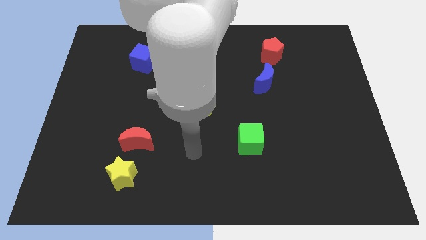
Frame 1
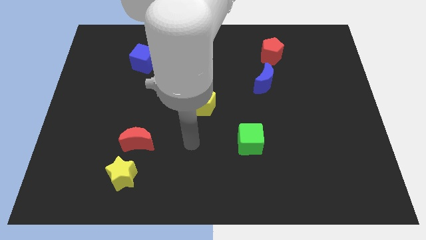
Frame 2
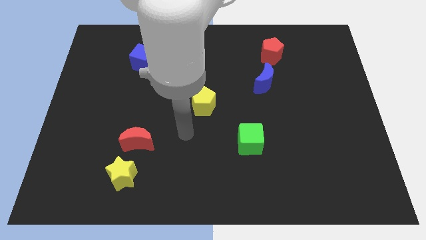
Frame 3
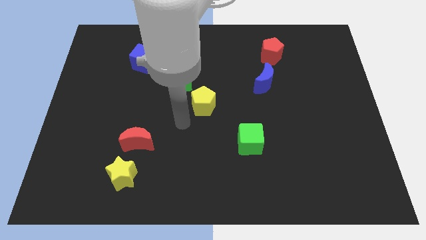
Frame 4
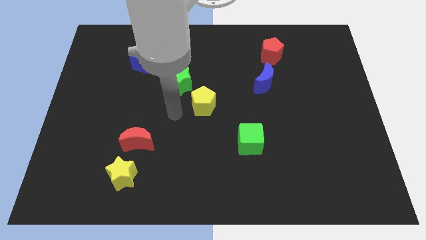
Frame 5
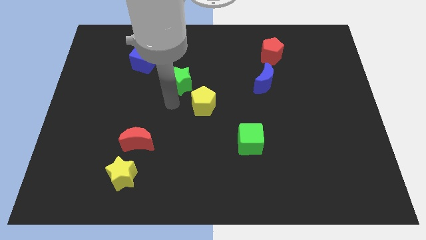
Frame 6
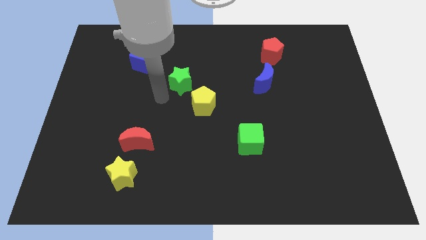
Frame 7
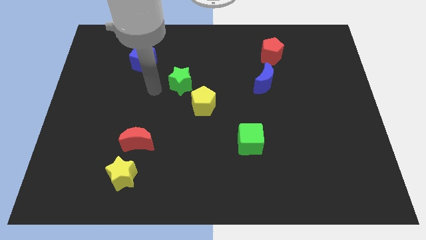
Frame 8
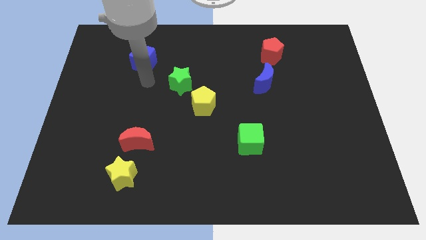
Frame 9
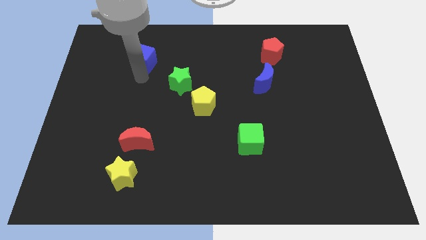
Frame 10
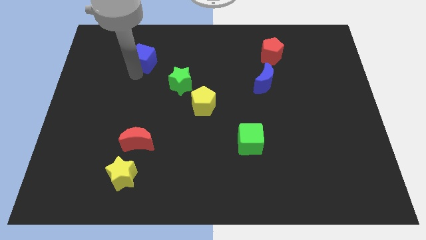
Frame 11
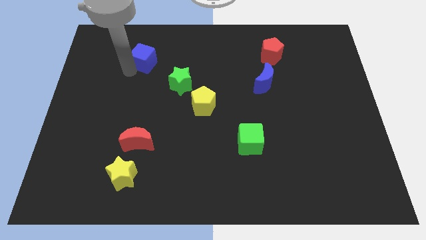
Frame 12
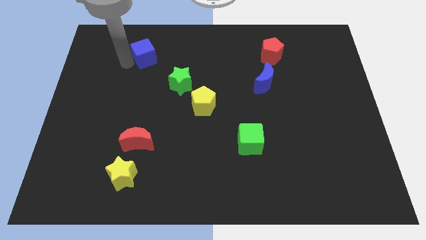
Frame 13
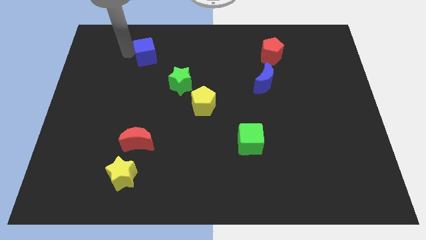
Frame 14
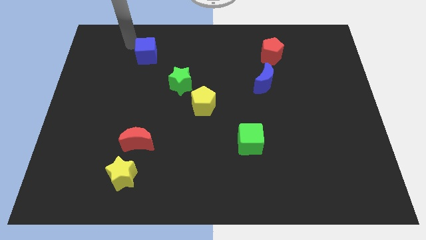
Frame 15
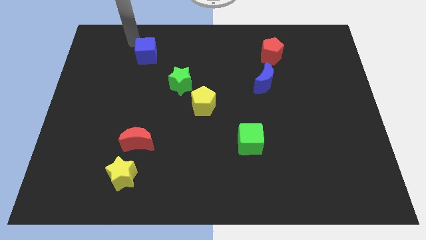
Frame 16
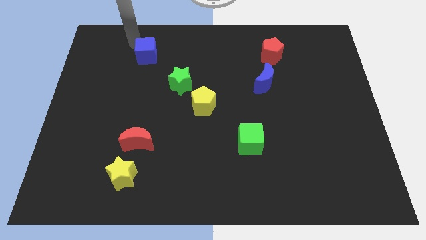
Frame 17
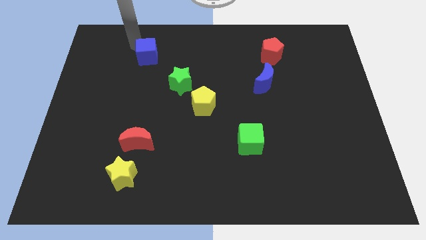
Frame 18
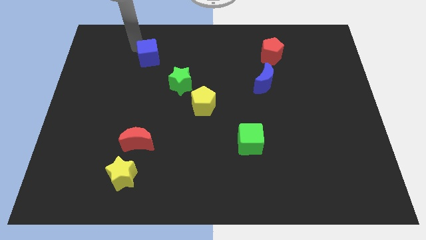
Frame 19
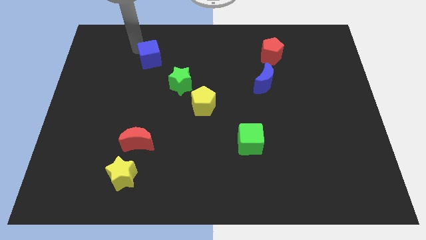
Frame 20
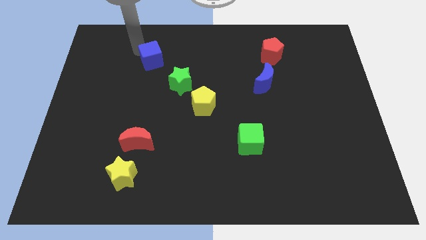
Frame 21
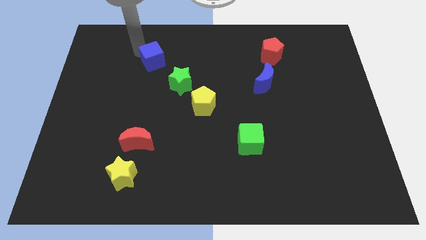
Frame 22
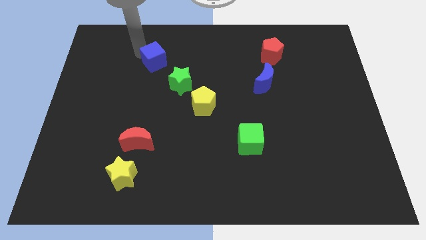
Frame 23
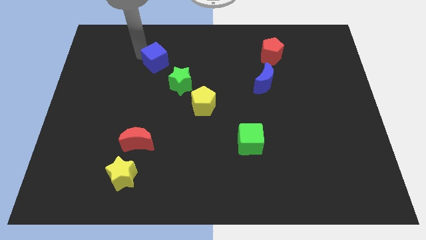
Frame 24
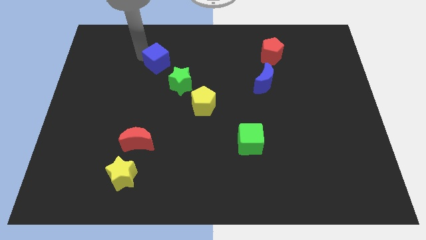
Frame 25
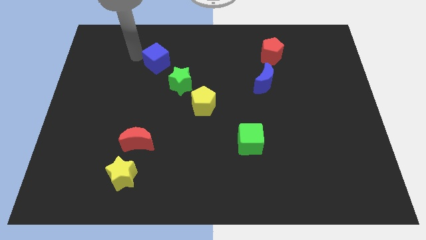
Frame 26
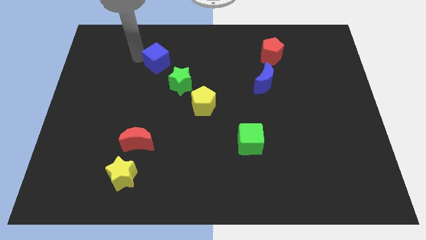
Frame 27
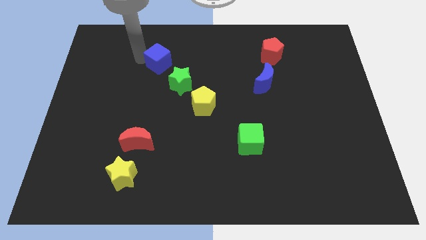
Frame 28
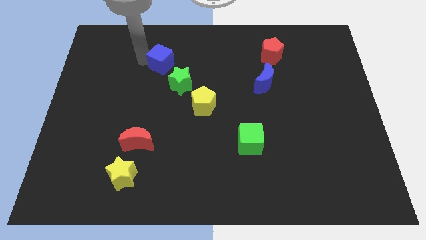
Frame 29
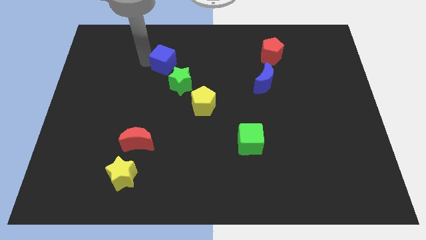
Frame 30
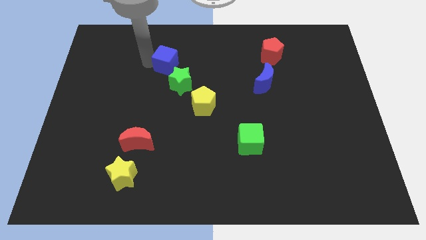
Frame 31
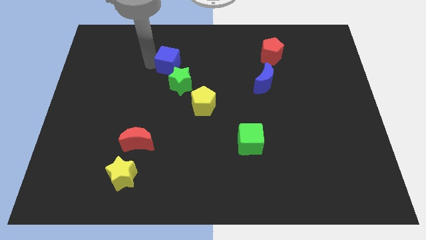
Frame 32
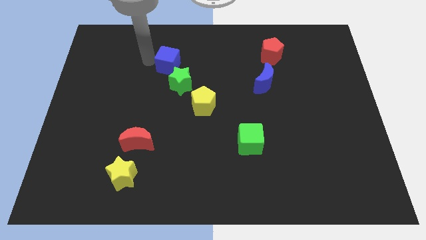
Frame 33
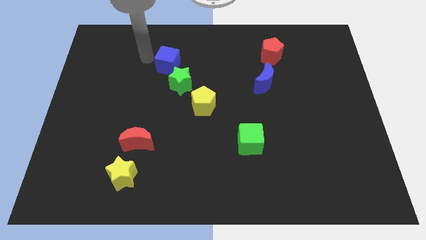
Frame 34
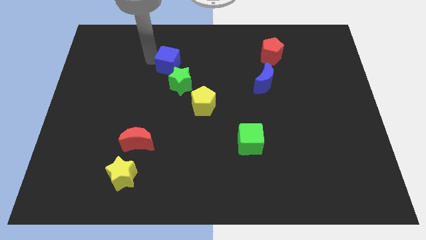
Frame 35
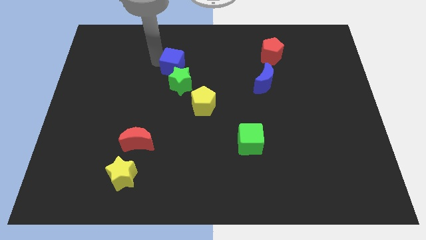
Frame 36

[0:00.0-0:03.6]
slightly move the blue cube right

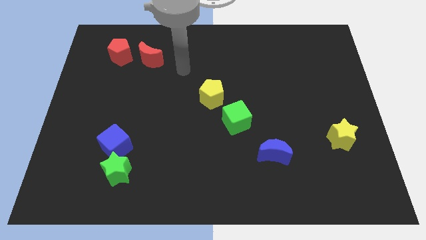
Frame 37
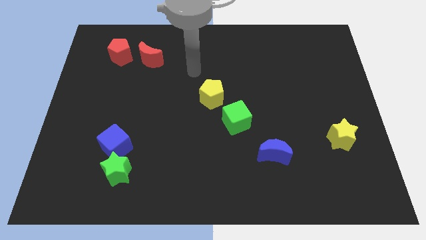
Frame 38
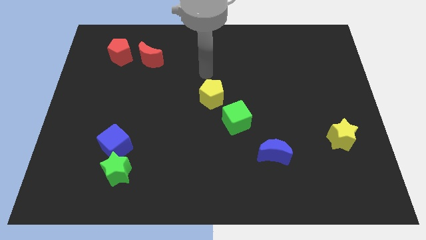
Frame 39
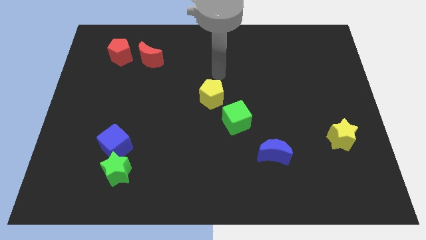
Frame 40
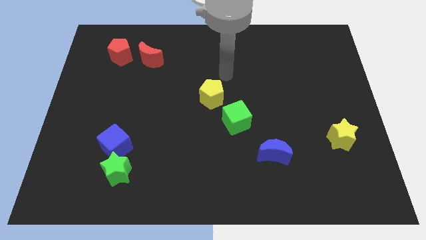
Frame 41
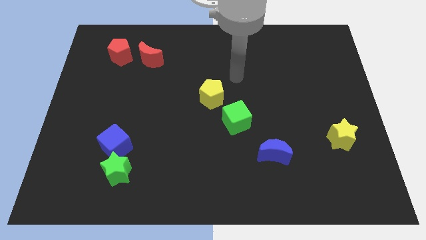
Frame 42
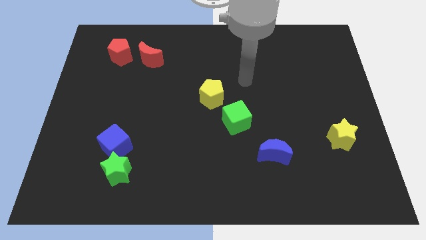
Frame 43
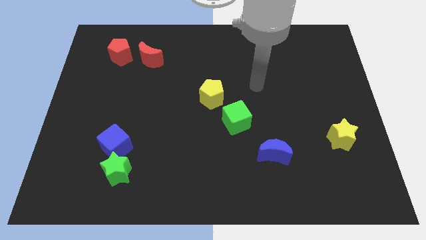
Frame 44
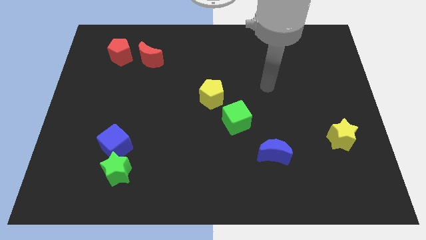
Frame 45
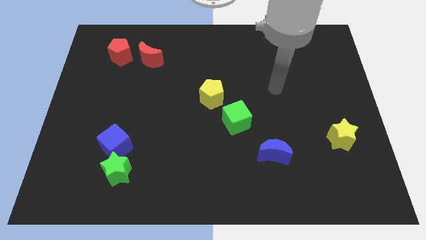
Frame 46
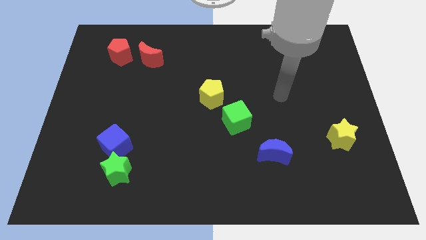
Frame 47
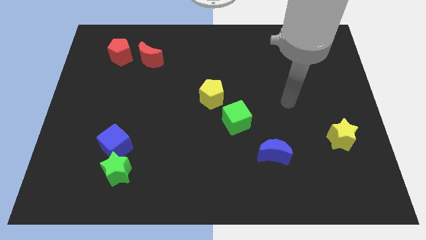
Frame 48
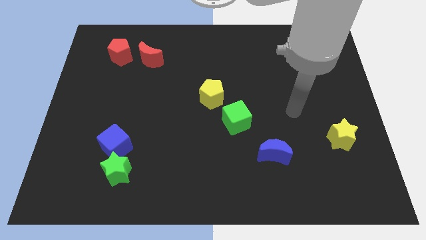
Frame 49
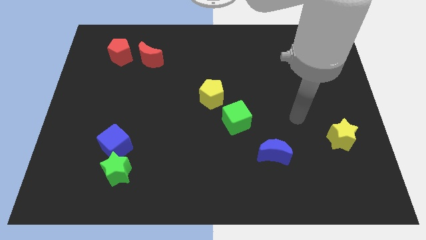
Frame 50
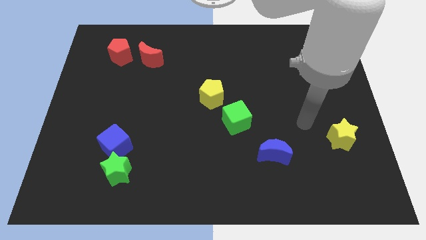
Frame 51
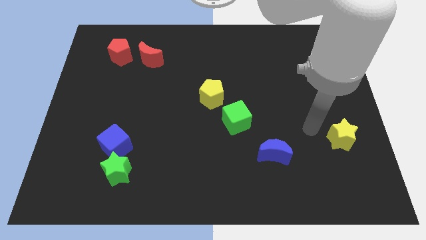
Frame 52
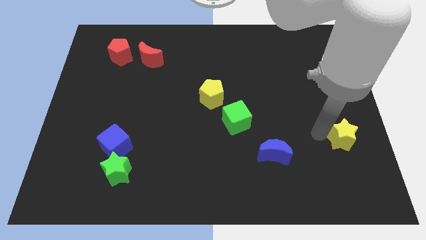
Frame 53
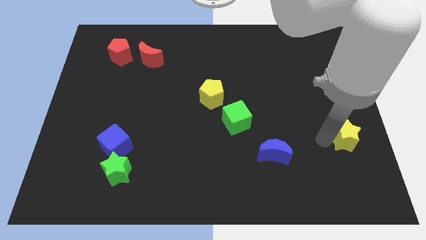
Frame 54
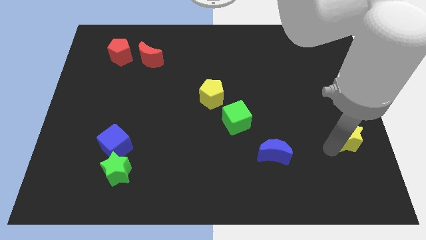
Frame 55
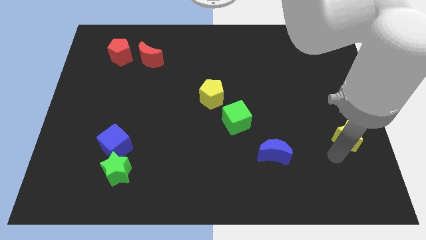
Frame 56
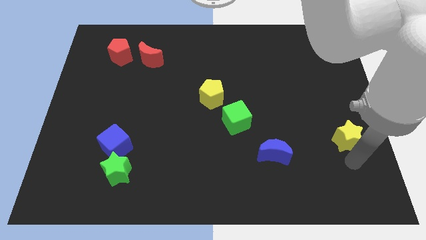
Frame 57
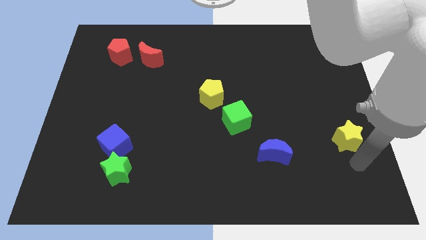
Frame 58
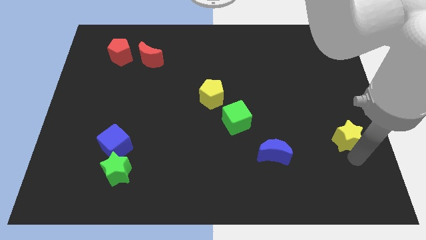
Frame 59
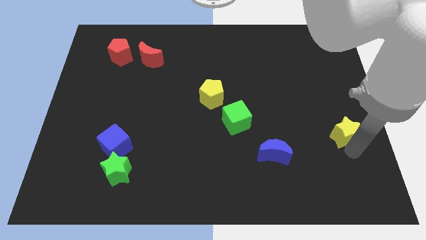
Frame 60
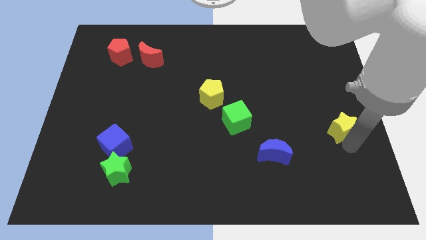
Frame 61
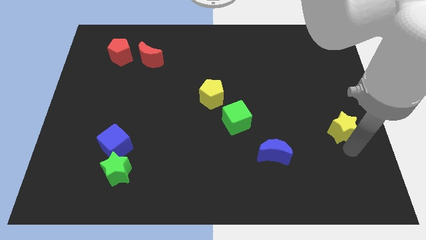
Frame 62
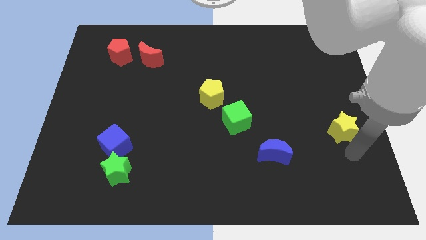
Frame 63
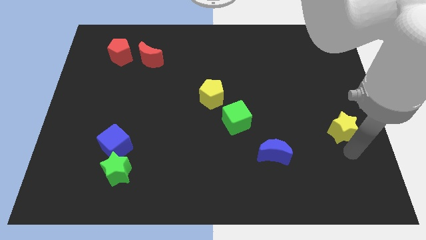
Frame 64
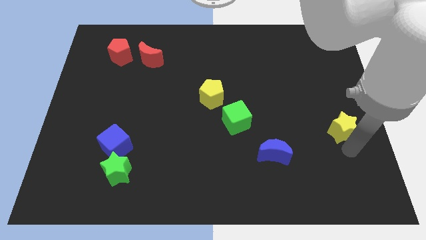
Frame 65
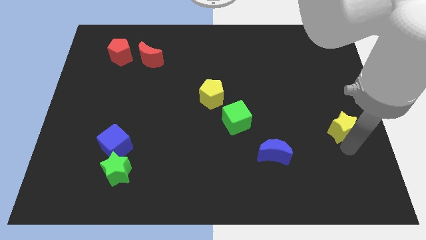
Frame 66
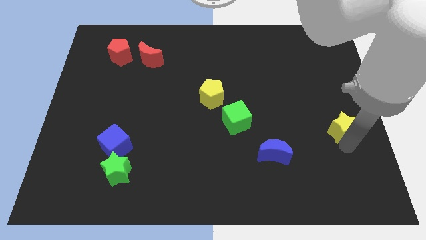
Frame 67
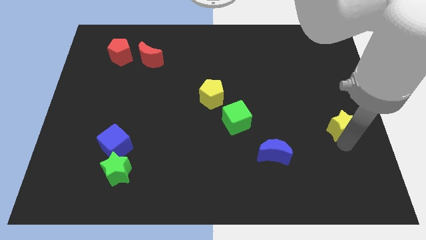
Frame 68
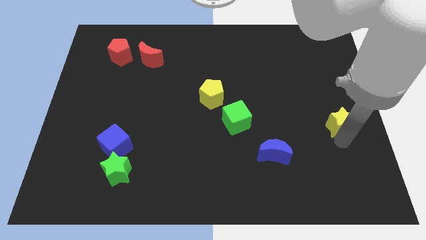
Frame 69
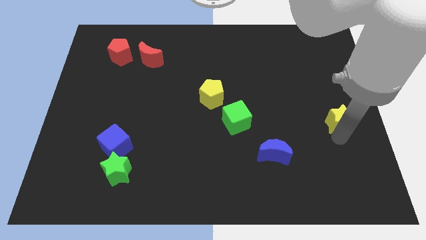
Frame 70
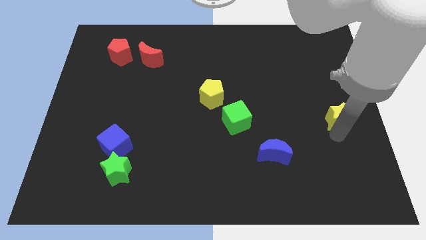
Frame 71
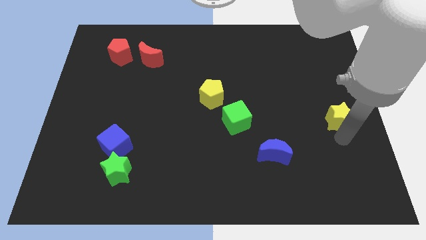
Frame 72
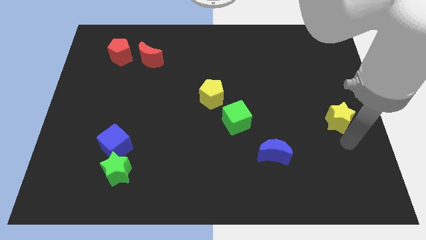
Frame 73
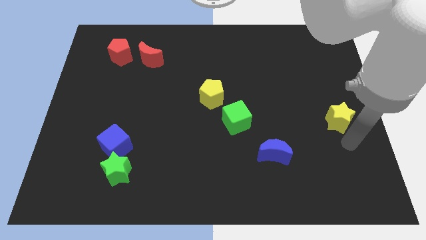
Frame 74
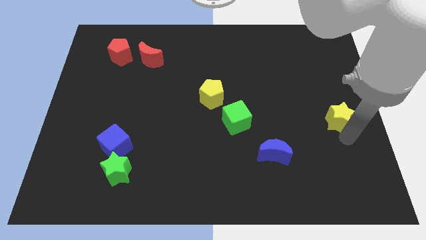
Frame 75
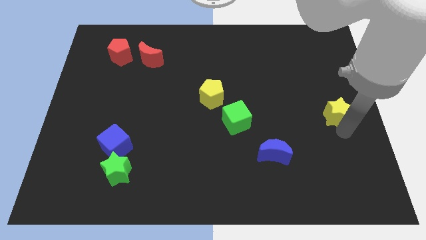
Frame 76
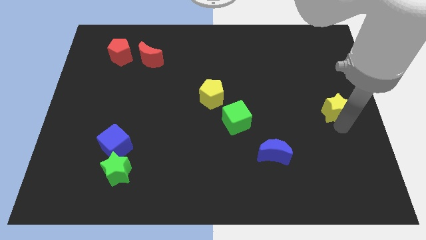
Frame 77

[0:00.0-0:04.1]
slide the yellow star up somewhat

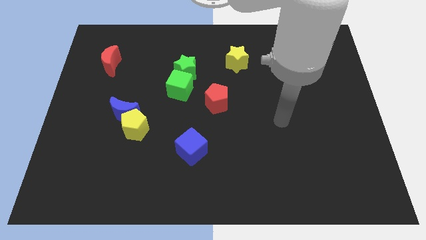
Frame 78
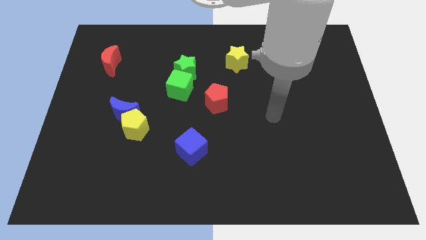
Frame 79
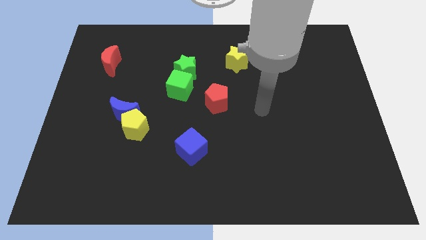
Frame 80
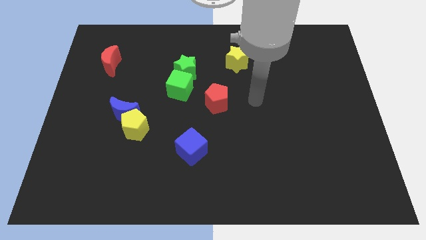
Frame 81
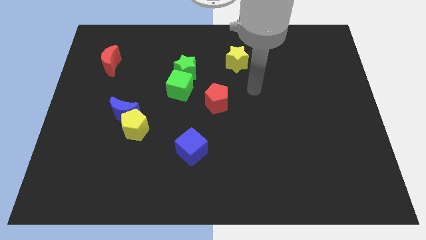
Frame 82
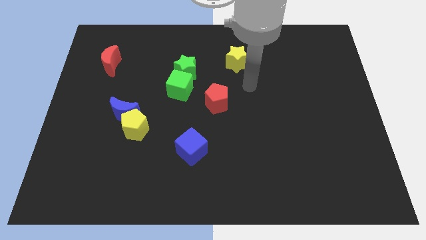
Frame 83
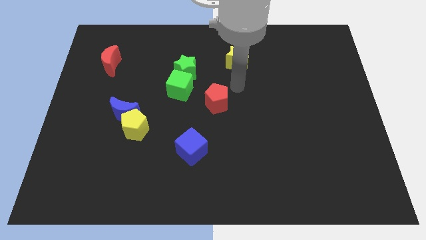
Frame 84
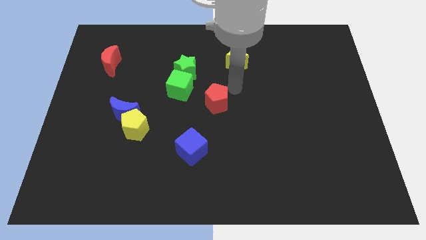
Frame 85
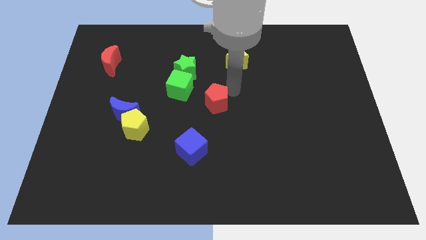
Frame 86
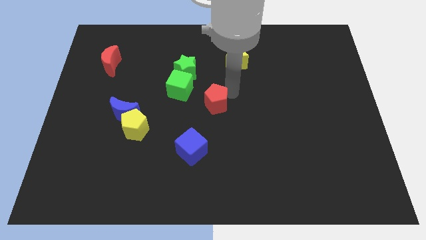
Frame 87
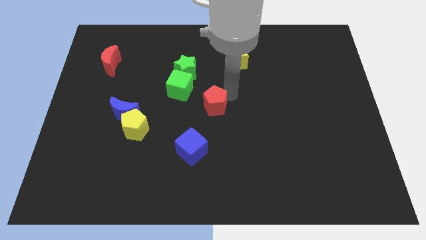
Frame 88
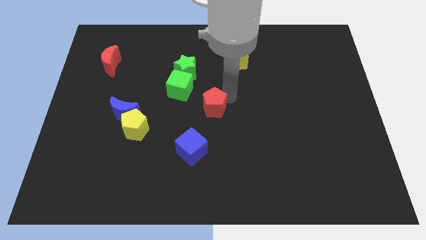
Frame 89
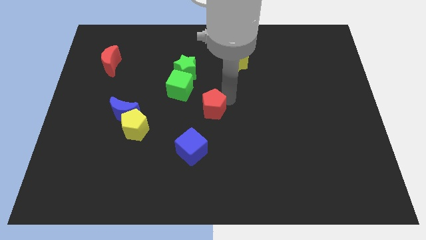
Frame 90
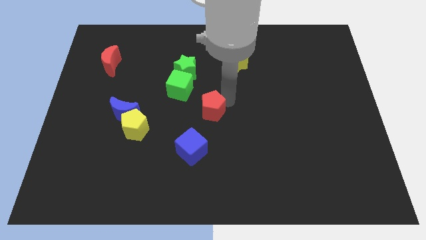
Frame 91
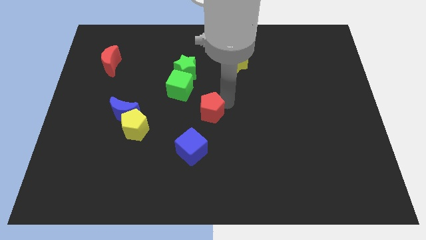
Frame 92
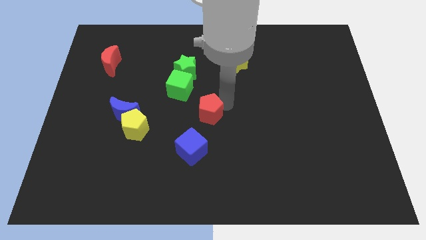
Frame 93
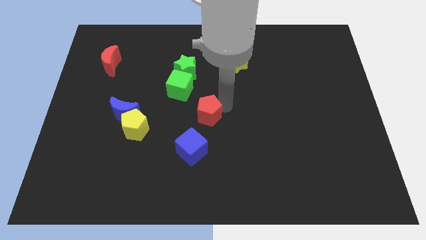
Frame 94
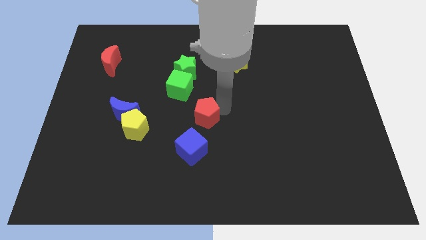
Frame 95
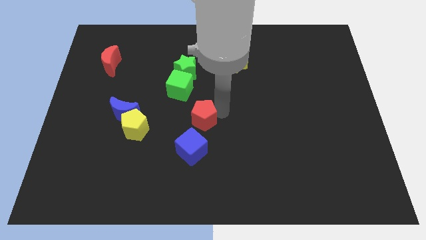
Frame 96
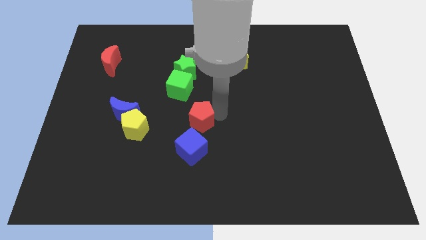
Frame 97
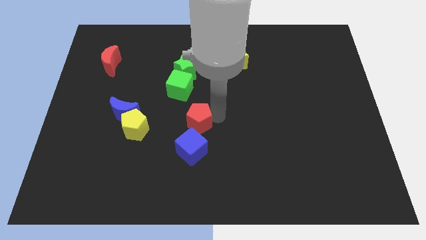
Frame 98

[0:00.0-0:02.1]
move the red pentagon diagonally downwards and left somewhat
